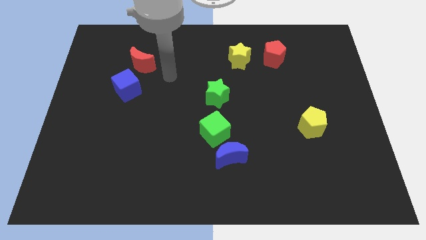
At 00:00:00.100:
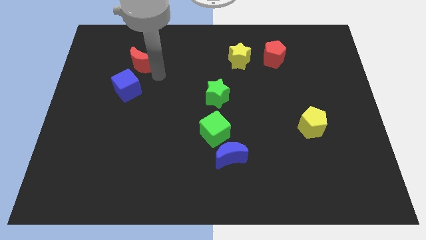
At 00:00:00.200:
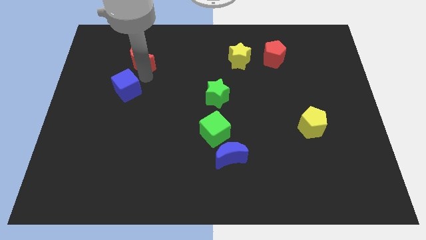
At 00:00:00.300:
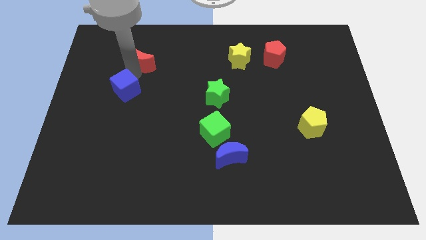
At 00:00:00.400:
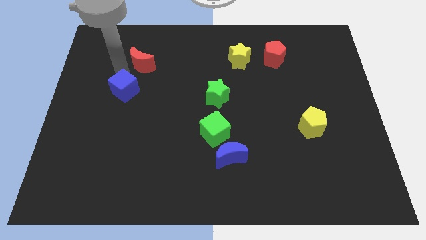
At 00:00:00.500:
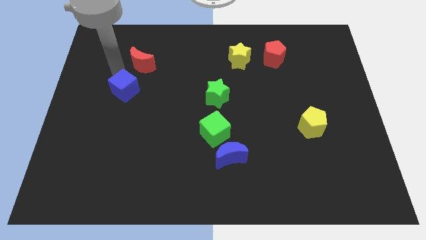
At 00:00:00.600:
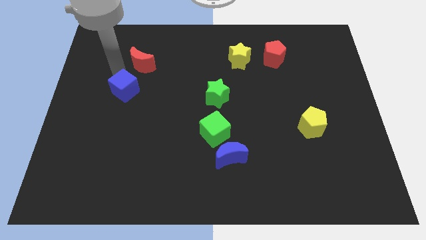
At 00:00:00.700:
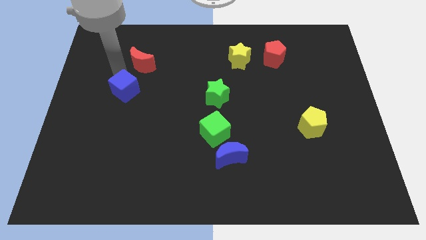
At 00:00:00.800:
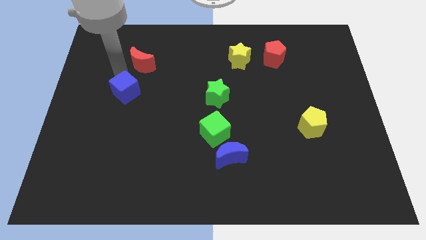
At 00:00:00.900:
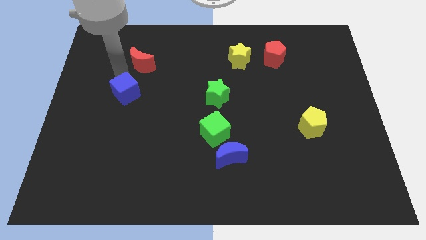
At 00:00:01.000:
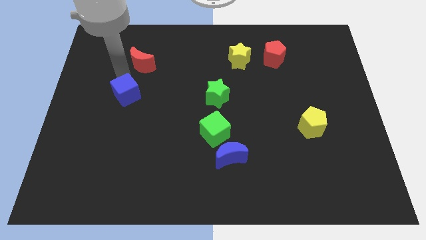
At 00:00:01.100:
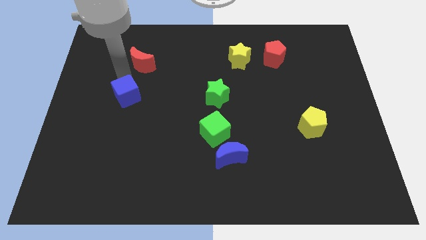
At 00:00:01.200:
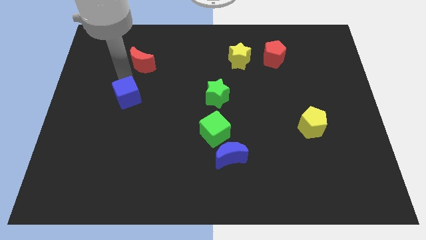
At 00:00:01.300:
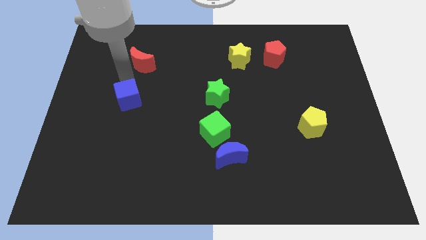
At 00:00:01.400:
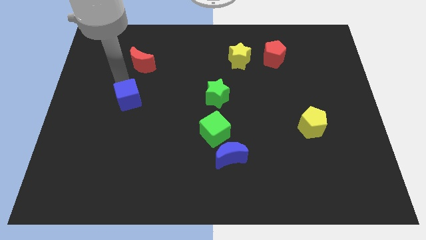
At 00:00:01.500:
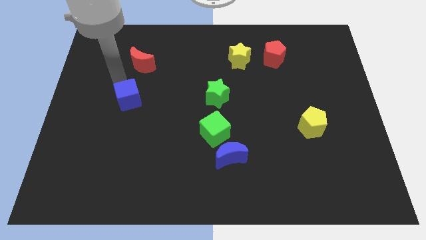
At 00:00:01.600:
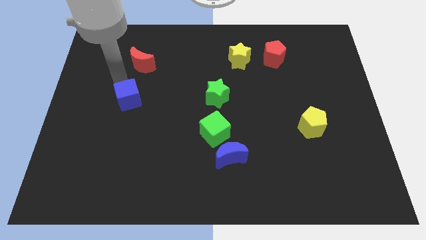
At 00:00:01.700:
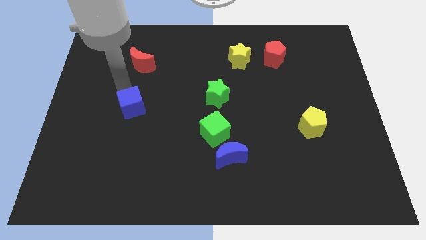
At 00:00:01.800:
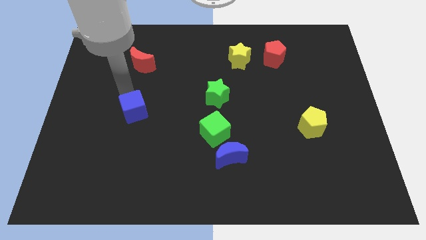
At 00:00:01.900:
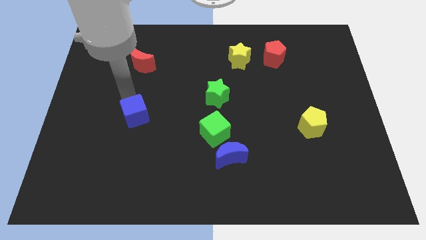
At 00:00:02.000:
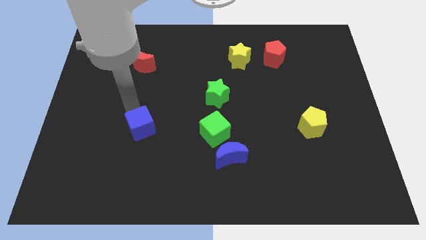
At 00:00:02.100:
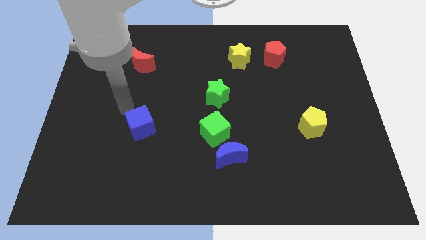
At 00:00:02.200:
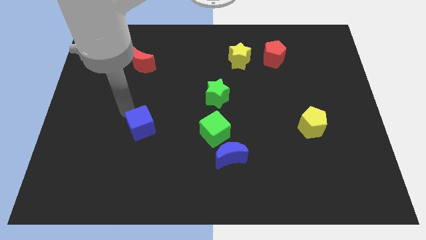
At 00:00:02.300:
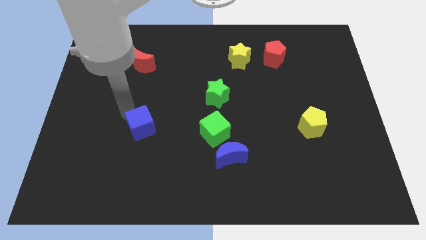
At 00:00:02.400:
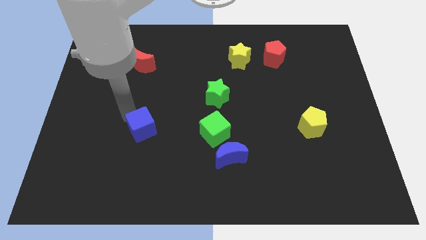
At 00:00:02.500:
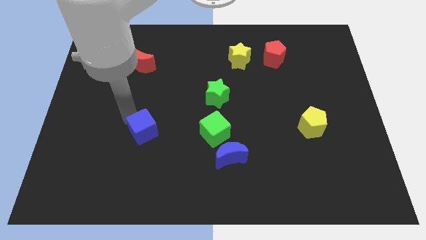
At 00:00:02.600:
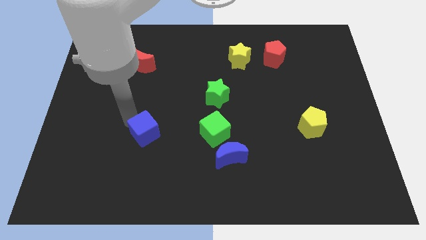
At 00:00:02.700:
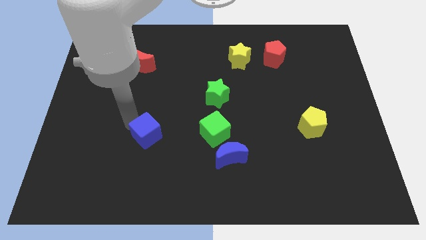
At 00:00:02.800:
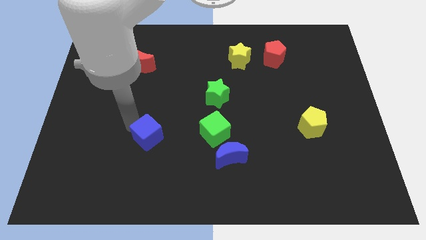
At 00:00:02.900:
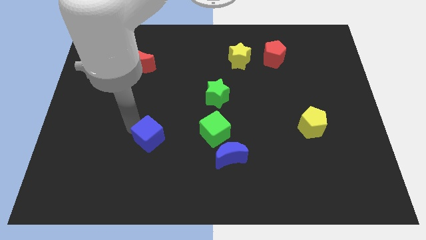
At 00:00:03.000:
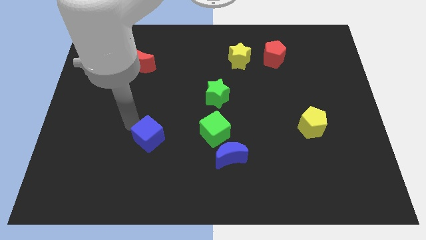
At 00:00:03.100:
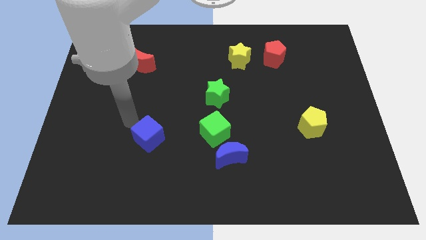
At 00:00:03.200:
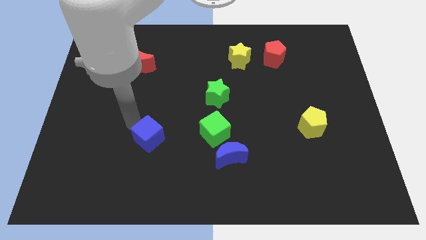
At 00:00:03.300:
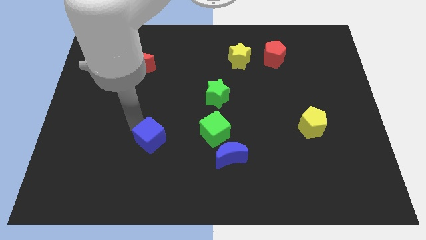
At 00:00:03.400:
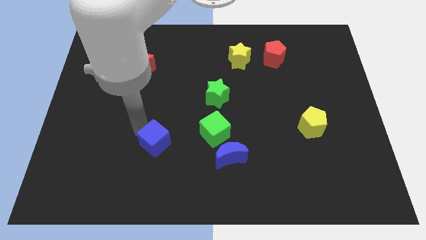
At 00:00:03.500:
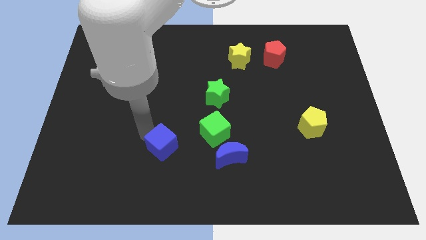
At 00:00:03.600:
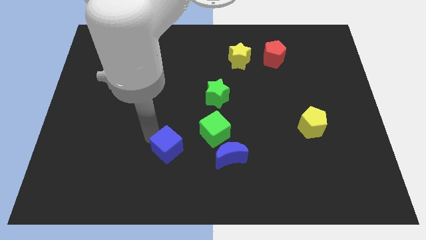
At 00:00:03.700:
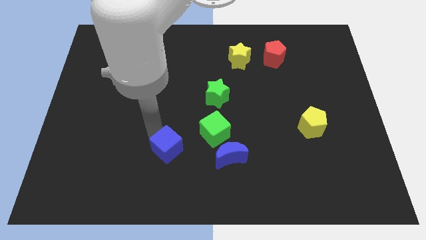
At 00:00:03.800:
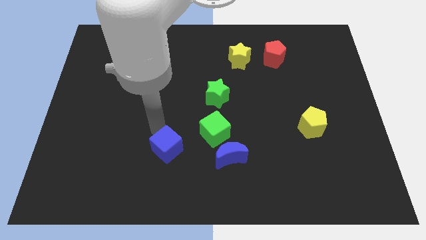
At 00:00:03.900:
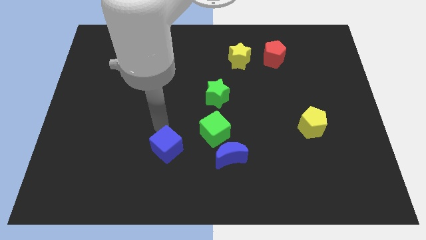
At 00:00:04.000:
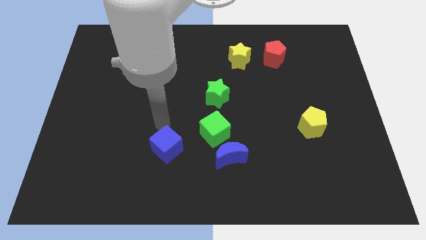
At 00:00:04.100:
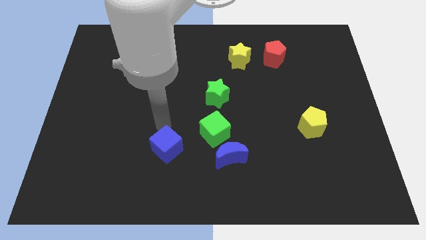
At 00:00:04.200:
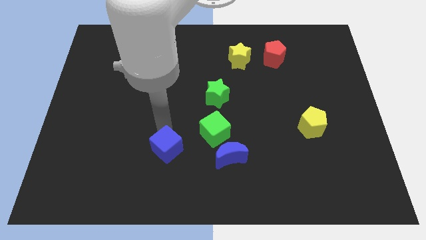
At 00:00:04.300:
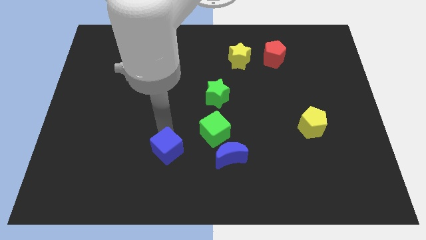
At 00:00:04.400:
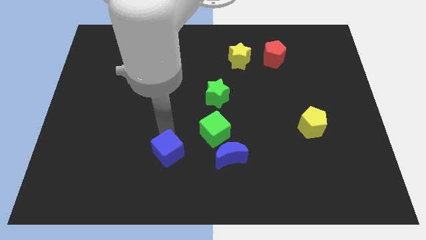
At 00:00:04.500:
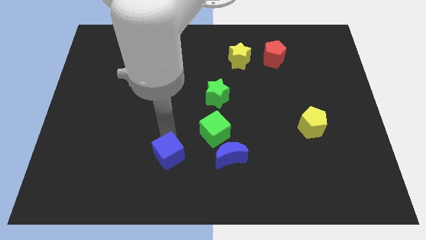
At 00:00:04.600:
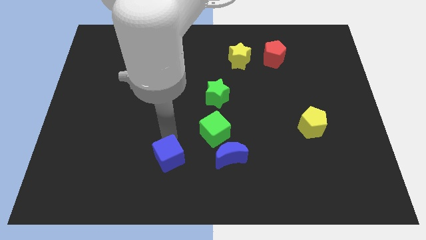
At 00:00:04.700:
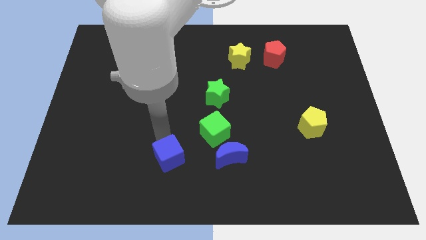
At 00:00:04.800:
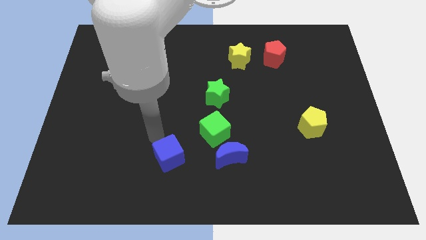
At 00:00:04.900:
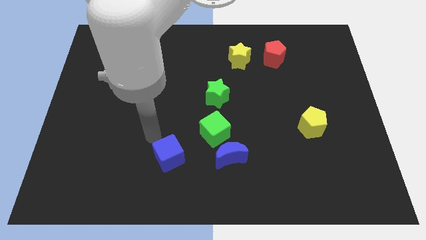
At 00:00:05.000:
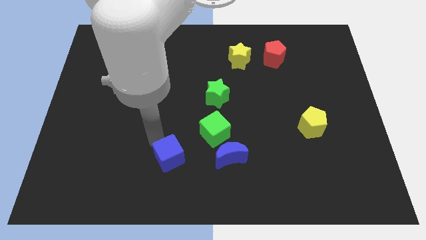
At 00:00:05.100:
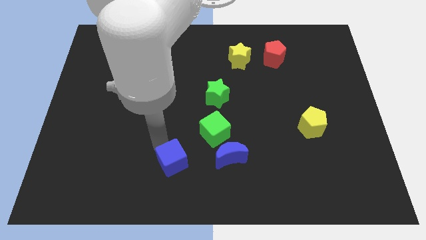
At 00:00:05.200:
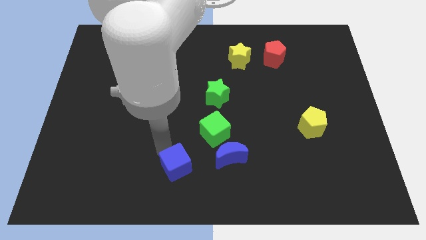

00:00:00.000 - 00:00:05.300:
put the blue cube to the bottom side
